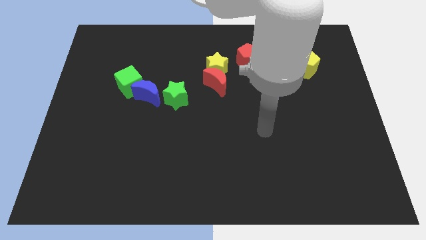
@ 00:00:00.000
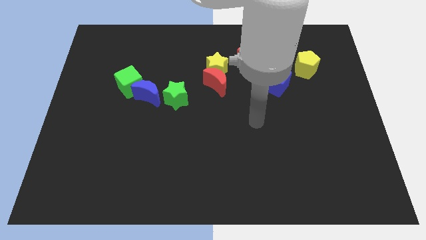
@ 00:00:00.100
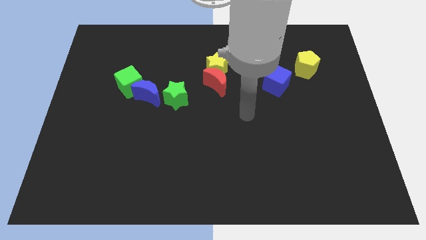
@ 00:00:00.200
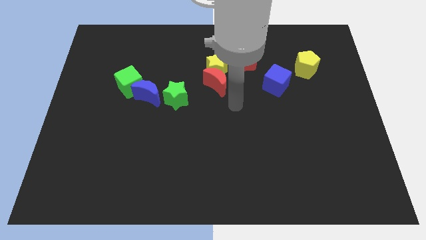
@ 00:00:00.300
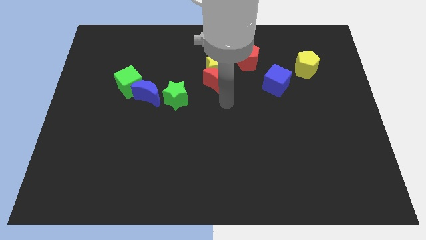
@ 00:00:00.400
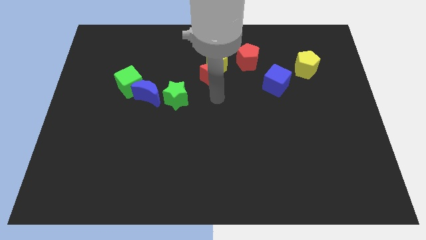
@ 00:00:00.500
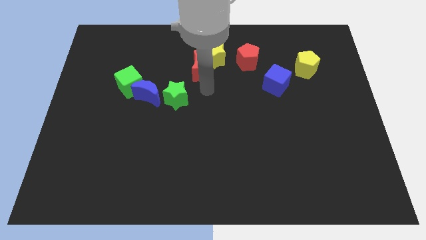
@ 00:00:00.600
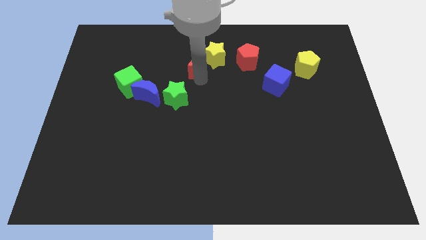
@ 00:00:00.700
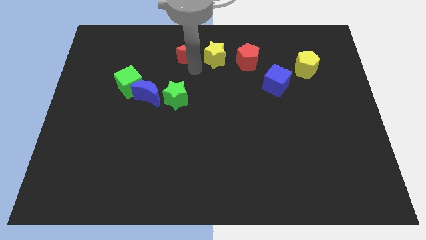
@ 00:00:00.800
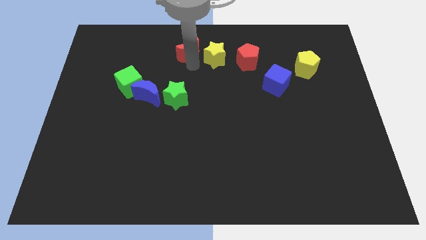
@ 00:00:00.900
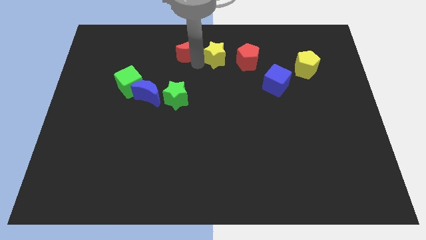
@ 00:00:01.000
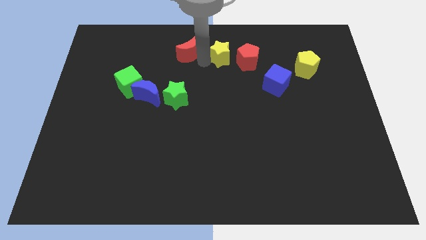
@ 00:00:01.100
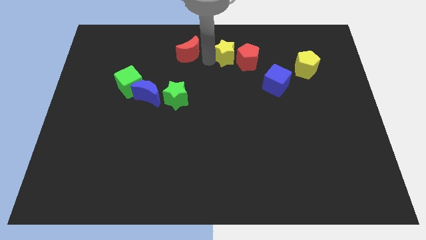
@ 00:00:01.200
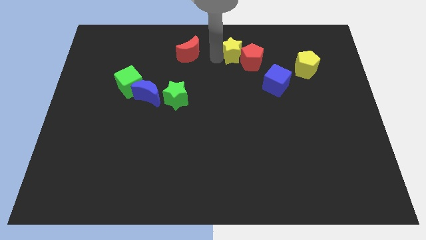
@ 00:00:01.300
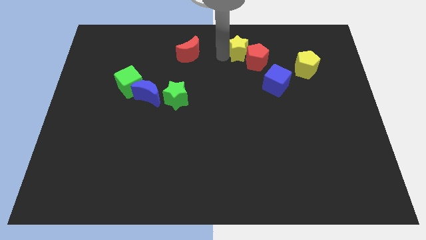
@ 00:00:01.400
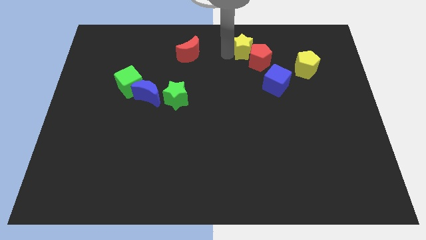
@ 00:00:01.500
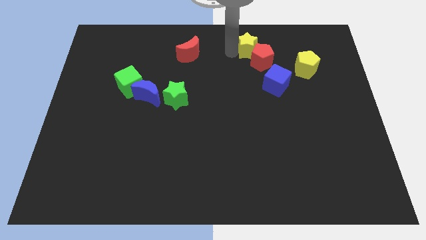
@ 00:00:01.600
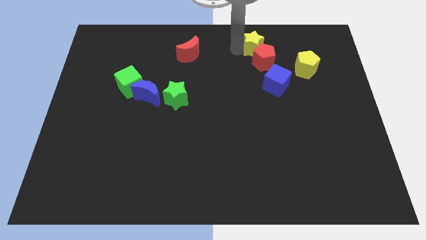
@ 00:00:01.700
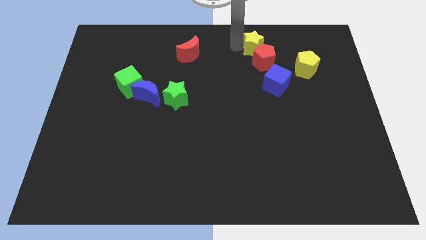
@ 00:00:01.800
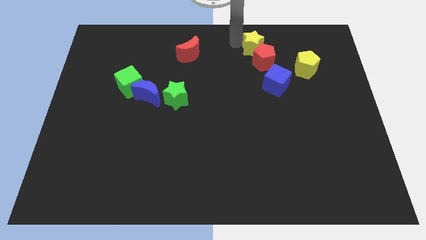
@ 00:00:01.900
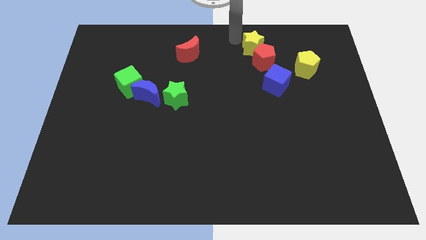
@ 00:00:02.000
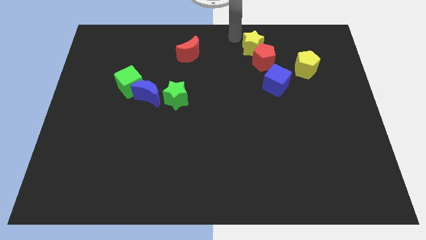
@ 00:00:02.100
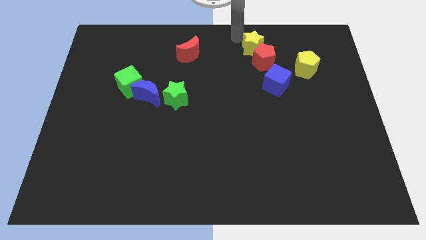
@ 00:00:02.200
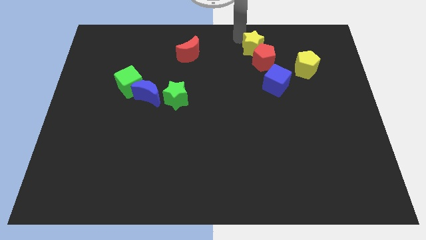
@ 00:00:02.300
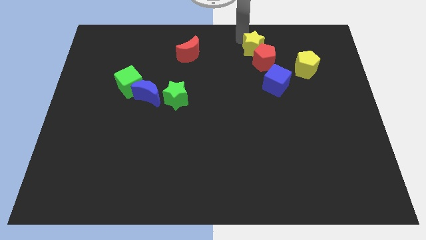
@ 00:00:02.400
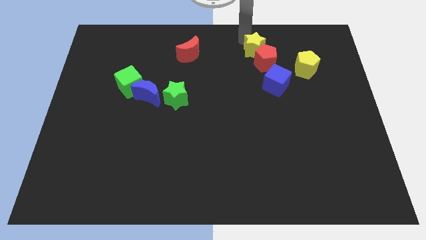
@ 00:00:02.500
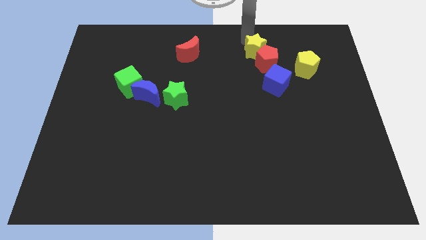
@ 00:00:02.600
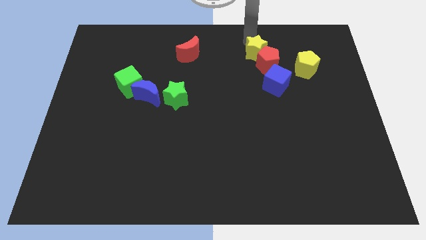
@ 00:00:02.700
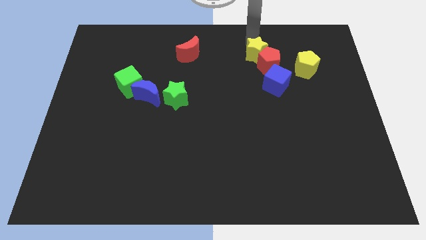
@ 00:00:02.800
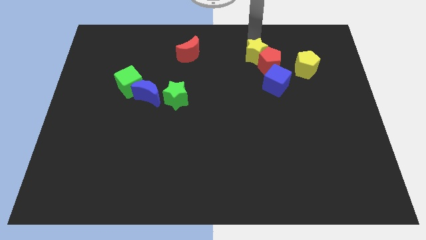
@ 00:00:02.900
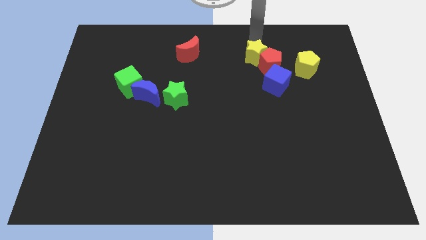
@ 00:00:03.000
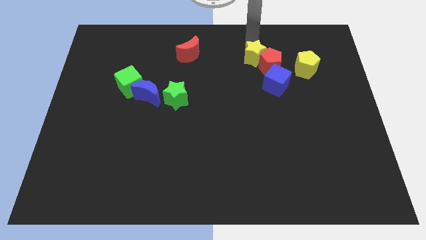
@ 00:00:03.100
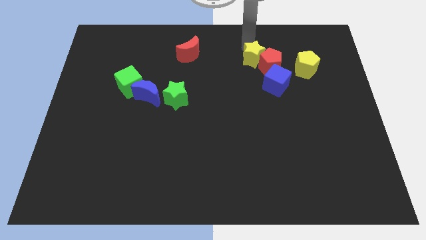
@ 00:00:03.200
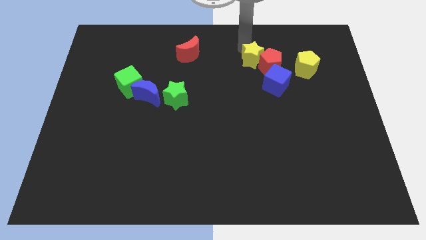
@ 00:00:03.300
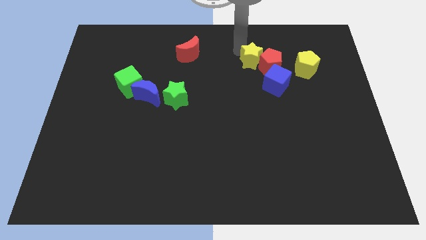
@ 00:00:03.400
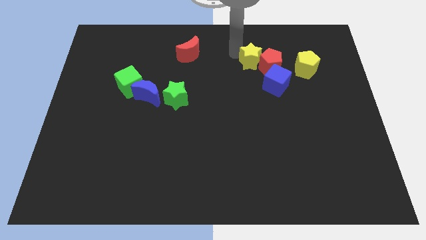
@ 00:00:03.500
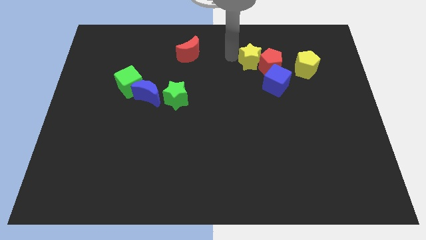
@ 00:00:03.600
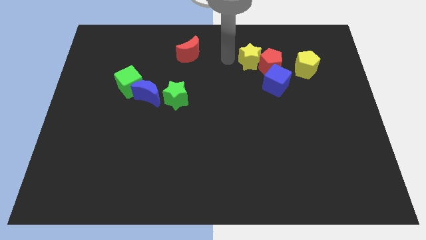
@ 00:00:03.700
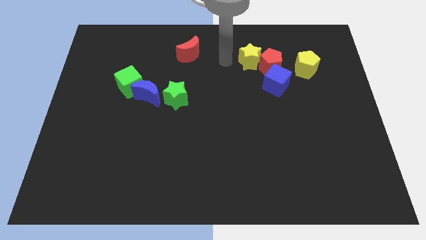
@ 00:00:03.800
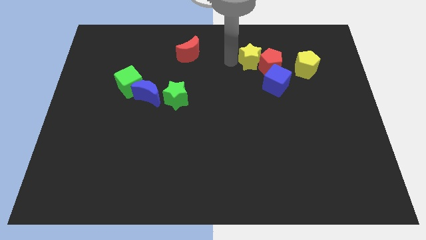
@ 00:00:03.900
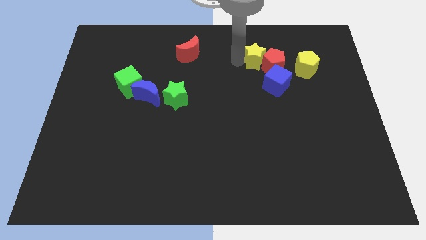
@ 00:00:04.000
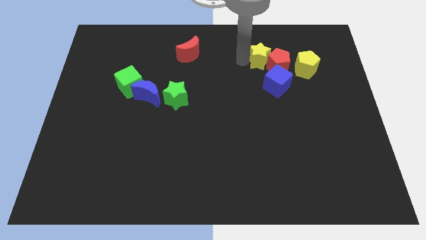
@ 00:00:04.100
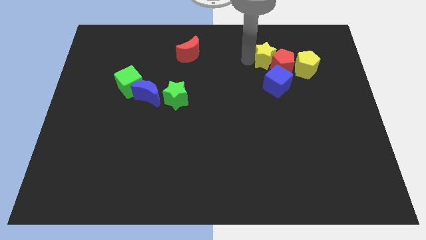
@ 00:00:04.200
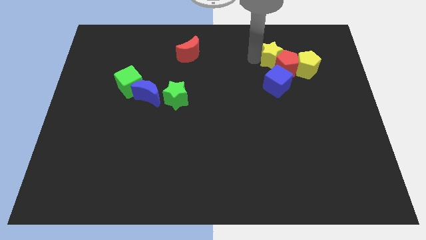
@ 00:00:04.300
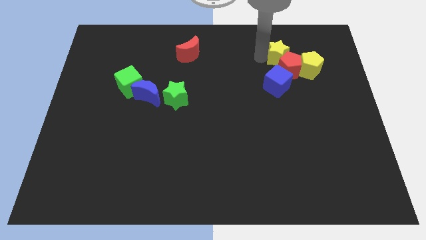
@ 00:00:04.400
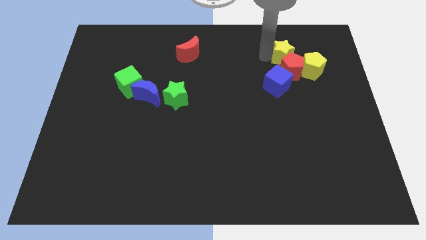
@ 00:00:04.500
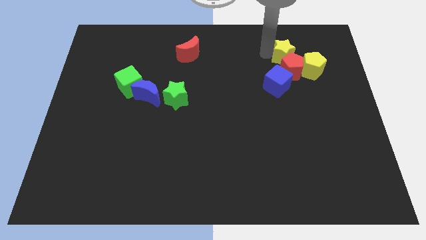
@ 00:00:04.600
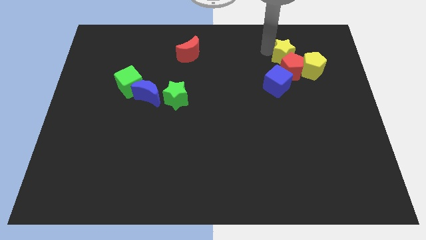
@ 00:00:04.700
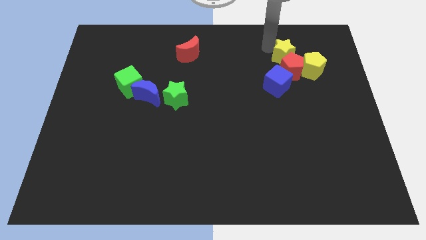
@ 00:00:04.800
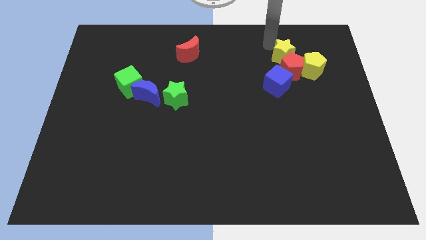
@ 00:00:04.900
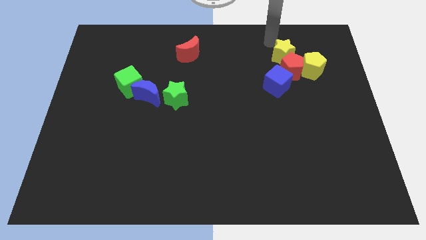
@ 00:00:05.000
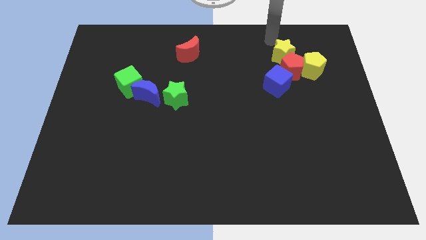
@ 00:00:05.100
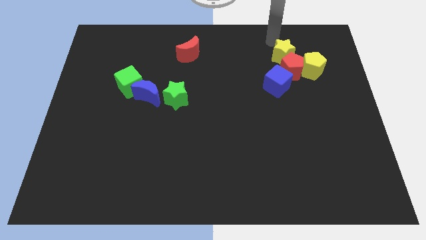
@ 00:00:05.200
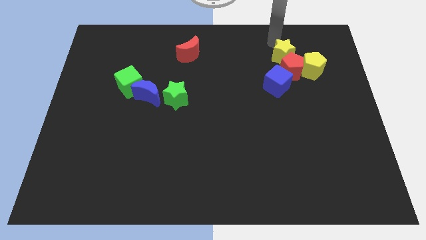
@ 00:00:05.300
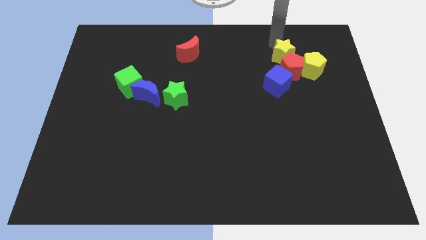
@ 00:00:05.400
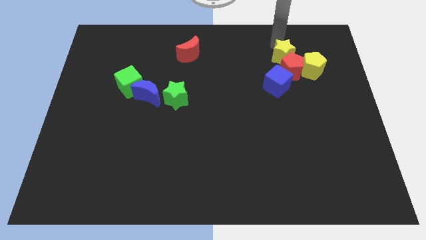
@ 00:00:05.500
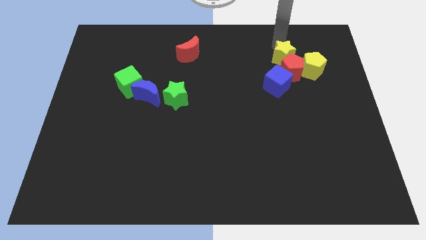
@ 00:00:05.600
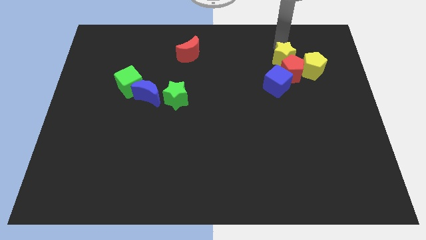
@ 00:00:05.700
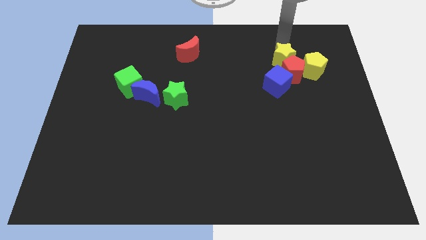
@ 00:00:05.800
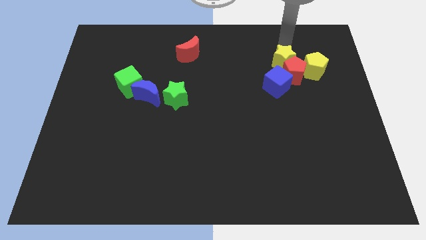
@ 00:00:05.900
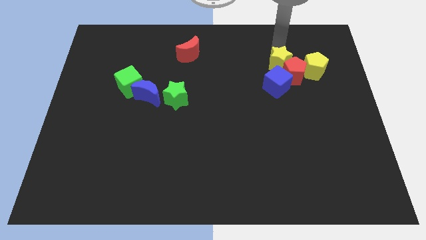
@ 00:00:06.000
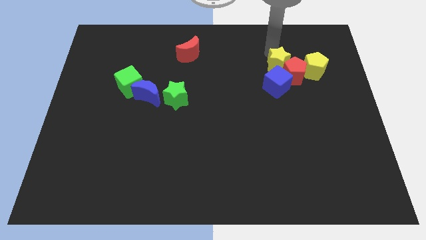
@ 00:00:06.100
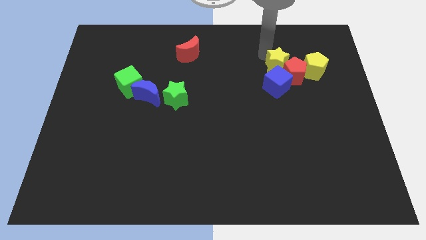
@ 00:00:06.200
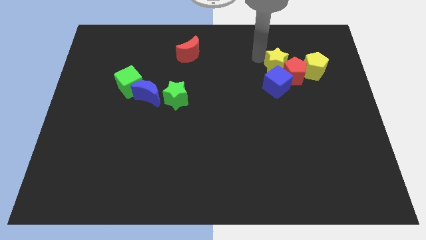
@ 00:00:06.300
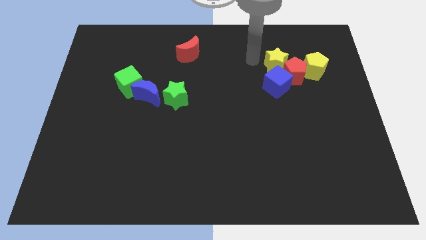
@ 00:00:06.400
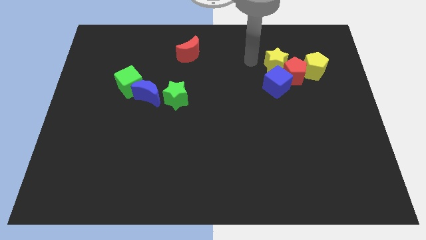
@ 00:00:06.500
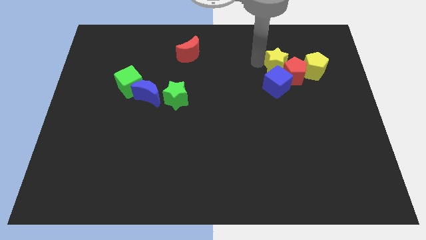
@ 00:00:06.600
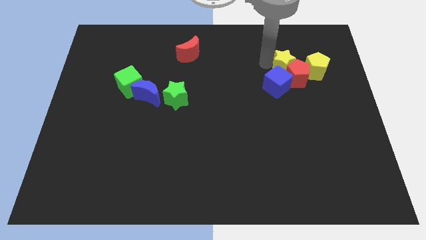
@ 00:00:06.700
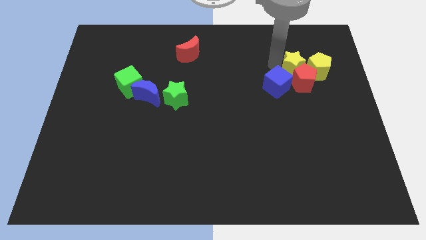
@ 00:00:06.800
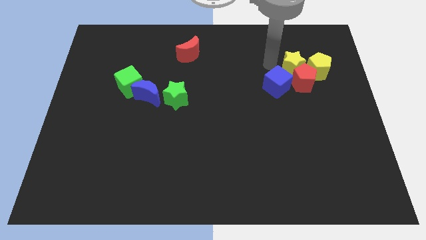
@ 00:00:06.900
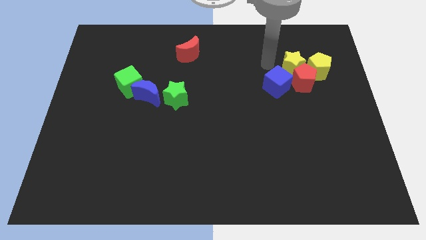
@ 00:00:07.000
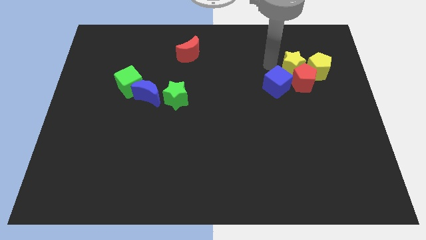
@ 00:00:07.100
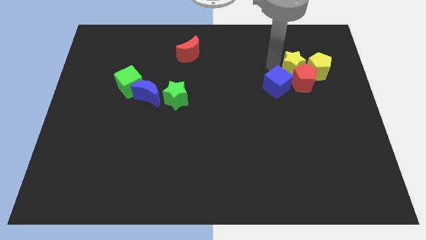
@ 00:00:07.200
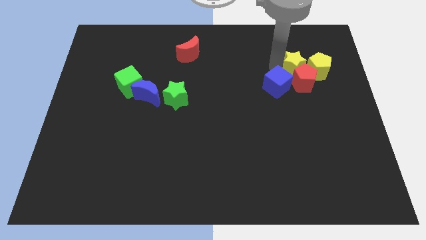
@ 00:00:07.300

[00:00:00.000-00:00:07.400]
slide the yellow star close to the yellow pentagon
